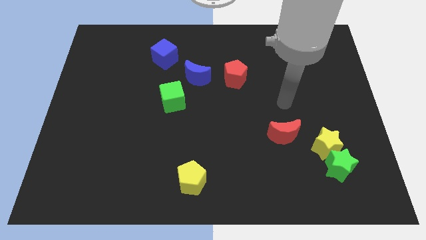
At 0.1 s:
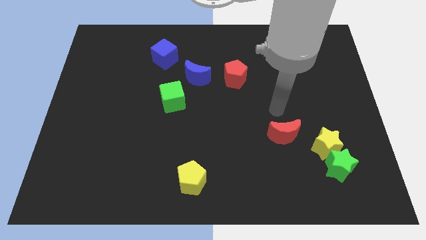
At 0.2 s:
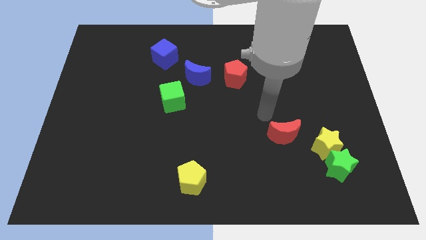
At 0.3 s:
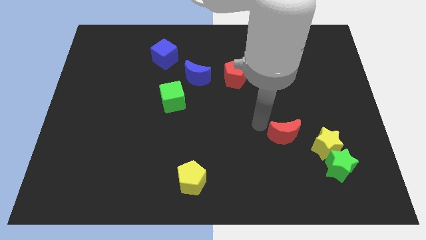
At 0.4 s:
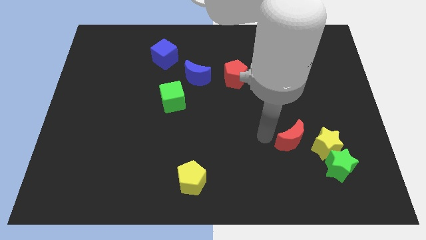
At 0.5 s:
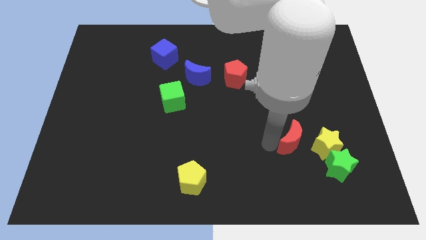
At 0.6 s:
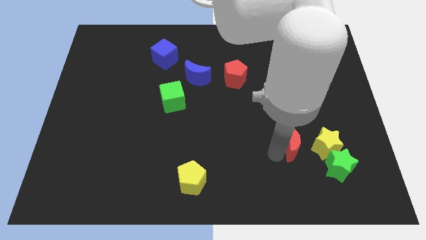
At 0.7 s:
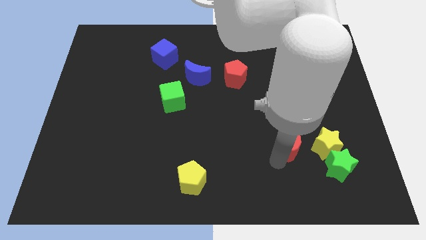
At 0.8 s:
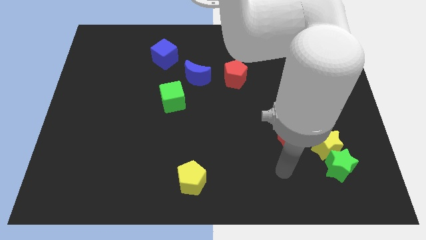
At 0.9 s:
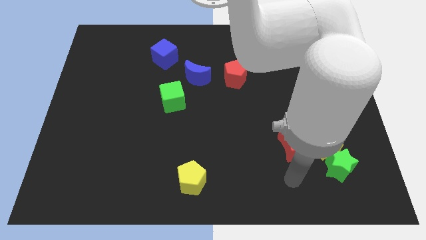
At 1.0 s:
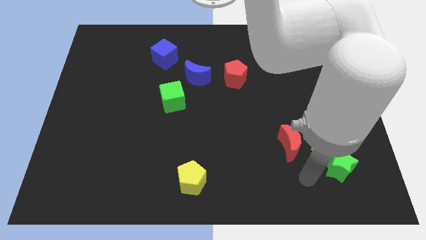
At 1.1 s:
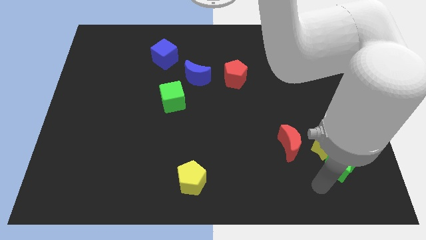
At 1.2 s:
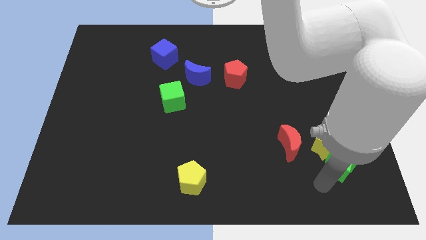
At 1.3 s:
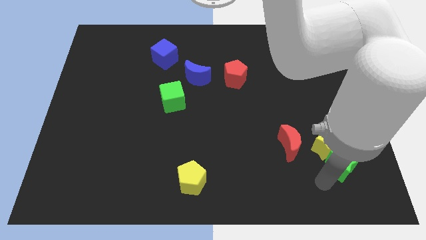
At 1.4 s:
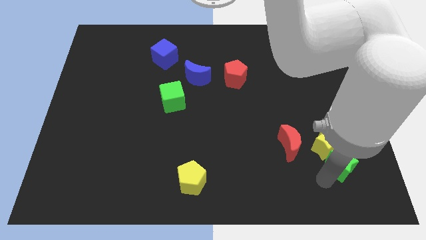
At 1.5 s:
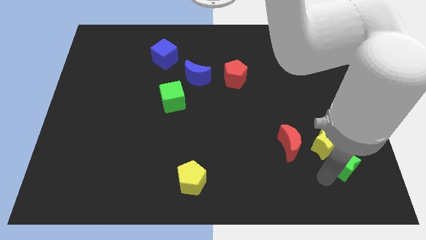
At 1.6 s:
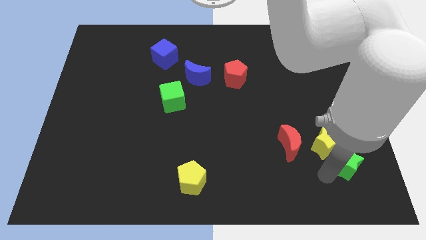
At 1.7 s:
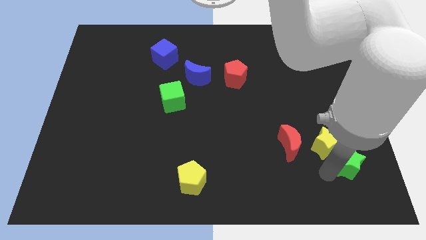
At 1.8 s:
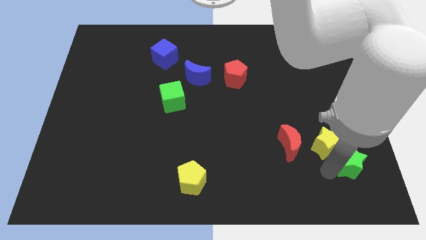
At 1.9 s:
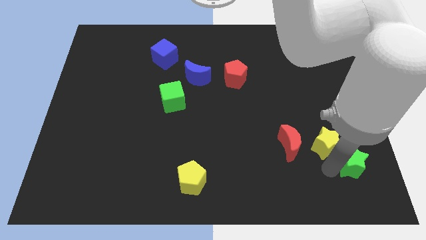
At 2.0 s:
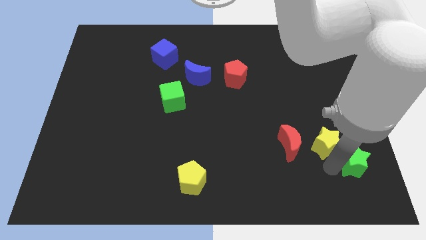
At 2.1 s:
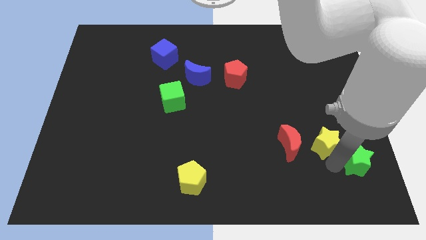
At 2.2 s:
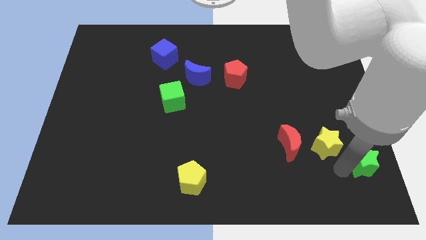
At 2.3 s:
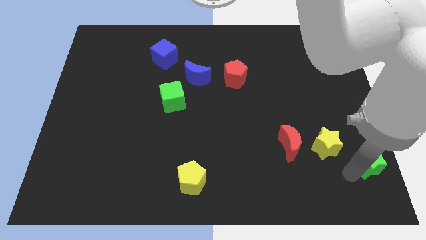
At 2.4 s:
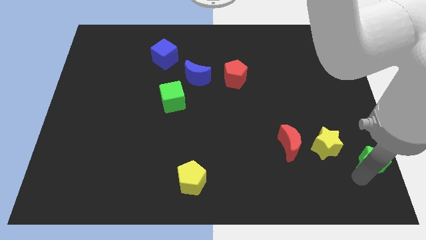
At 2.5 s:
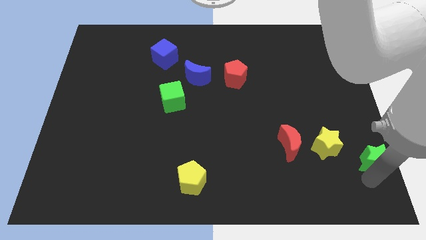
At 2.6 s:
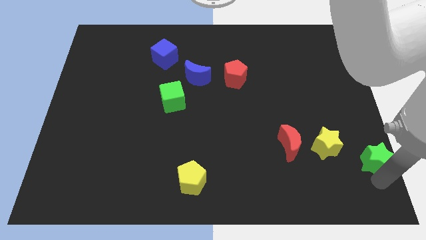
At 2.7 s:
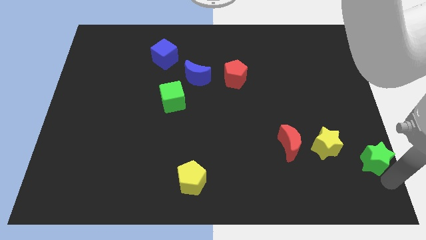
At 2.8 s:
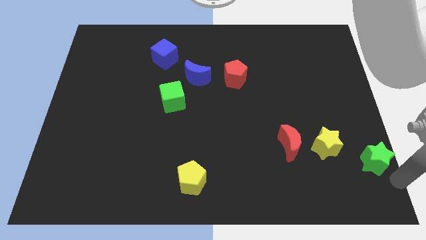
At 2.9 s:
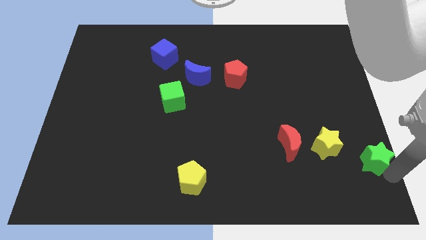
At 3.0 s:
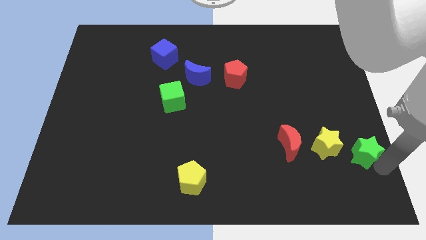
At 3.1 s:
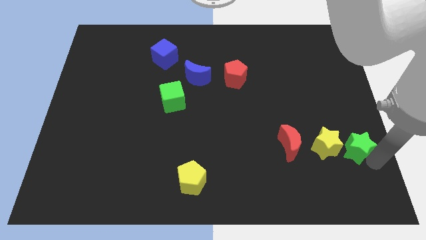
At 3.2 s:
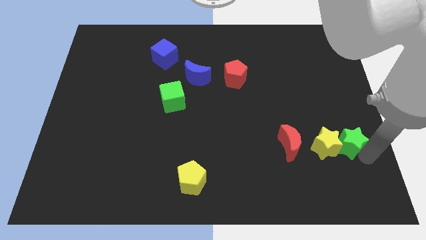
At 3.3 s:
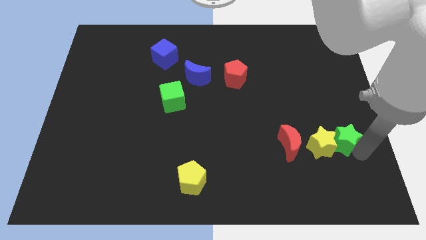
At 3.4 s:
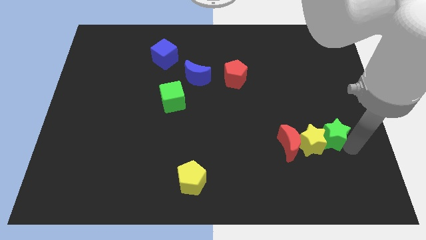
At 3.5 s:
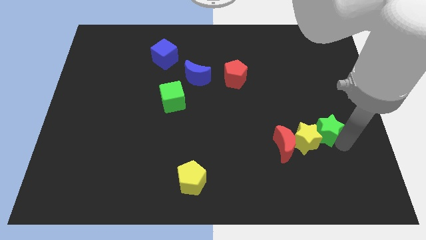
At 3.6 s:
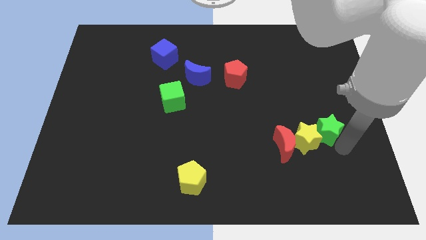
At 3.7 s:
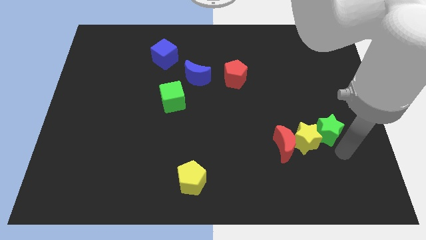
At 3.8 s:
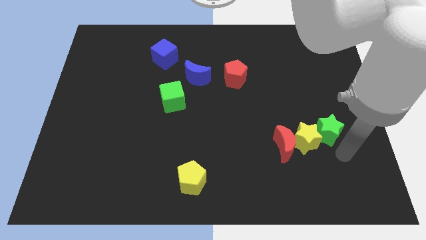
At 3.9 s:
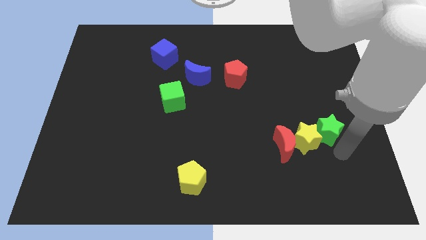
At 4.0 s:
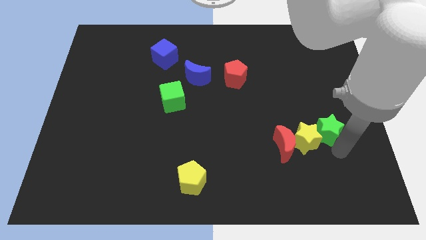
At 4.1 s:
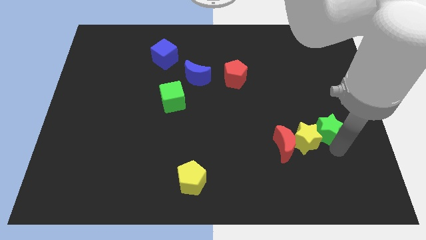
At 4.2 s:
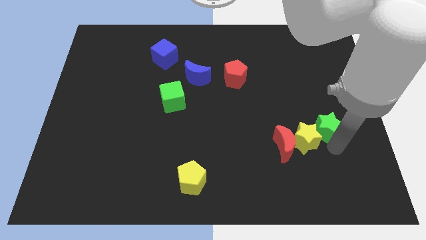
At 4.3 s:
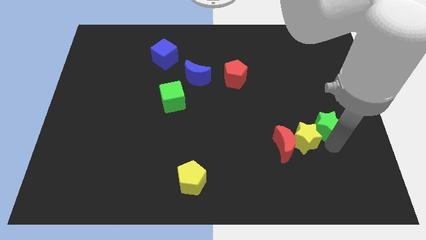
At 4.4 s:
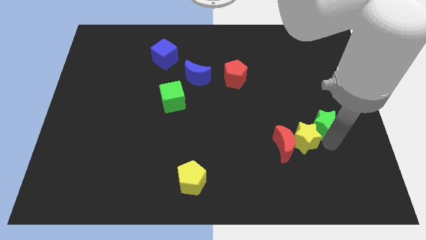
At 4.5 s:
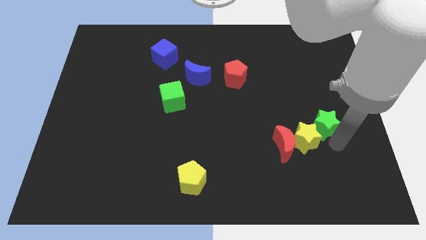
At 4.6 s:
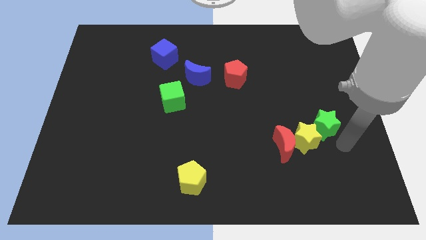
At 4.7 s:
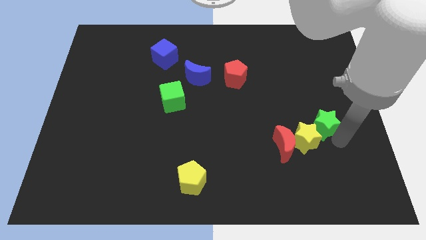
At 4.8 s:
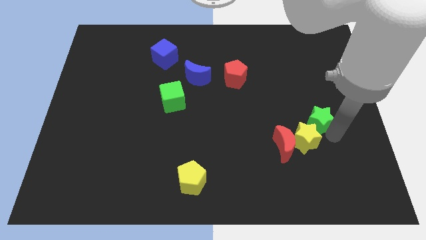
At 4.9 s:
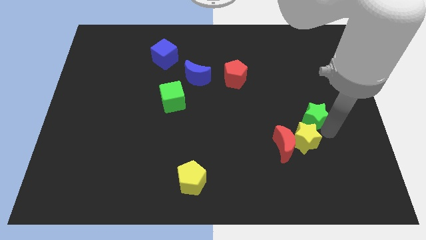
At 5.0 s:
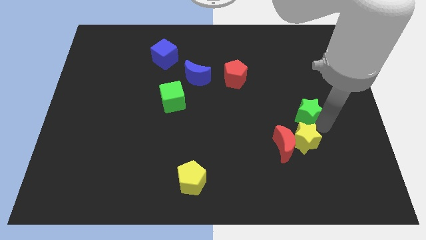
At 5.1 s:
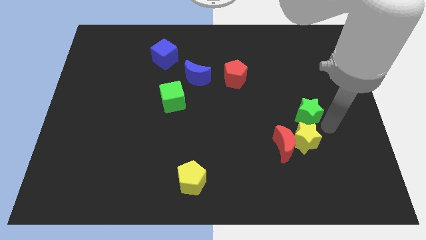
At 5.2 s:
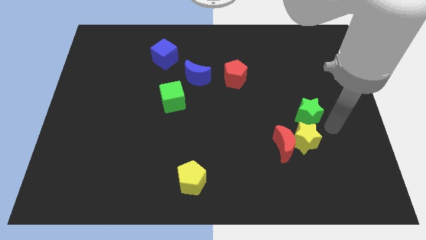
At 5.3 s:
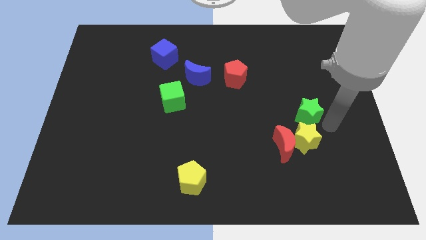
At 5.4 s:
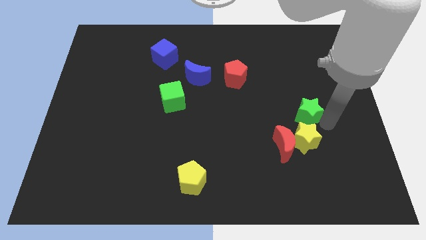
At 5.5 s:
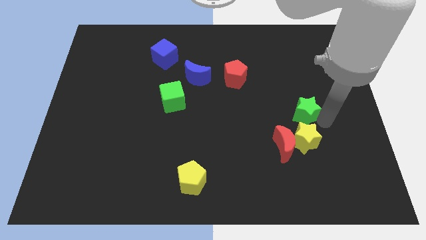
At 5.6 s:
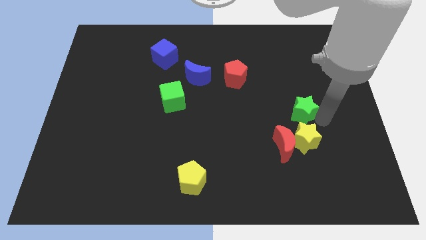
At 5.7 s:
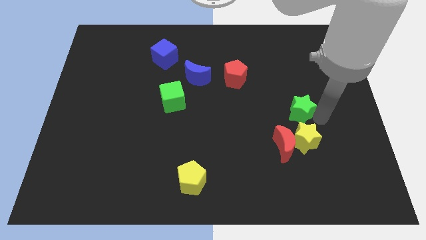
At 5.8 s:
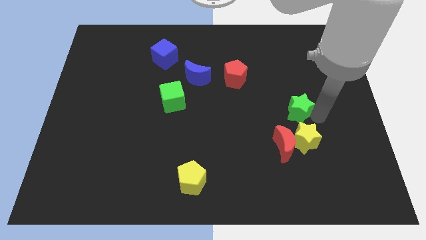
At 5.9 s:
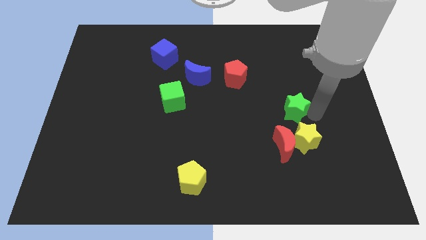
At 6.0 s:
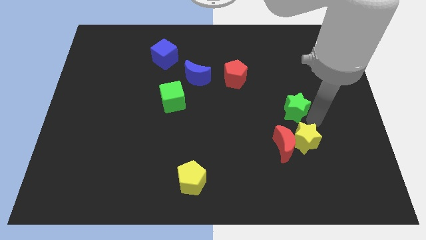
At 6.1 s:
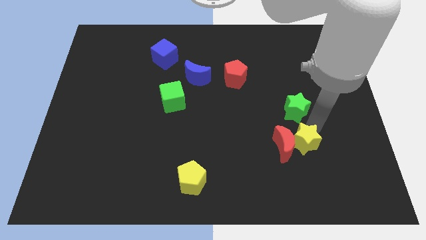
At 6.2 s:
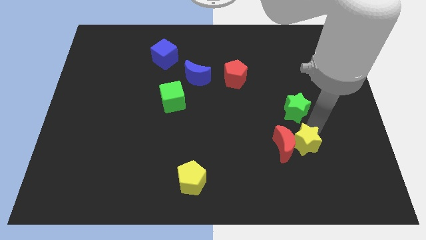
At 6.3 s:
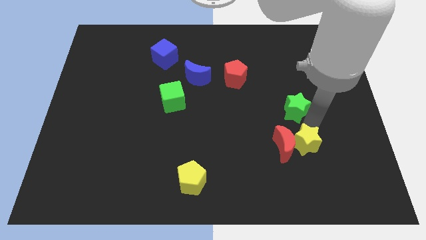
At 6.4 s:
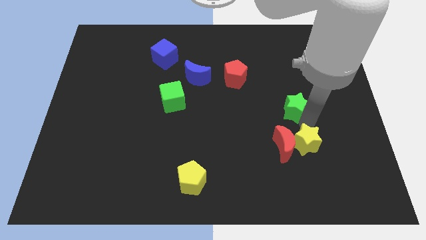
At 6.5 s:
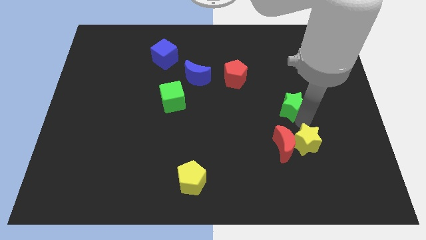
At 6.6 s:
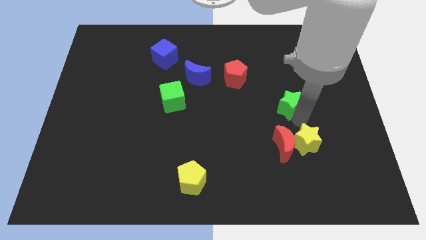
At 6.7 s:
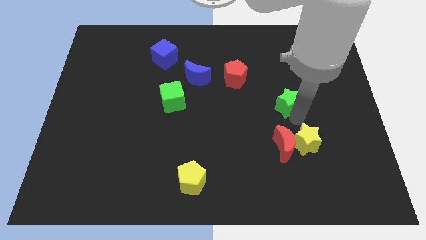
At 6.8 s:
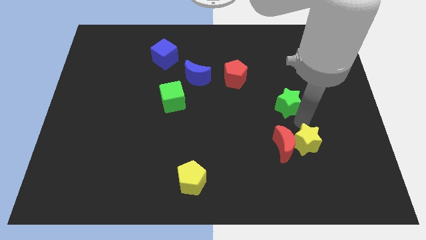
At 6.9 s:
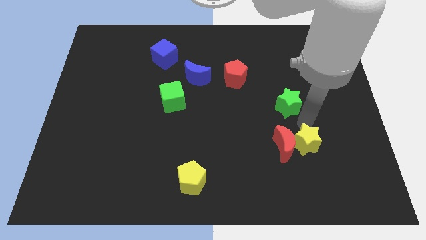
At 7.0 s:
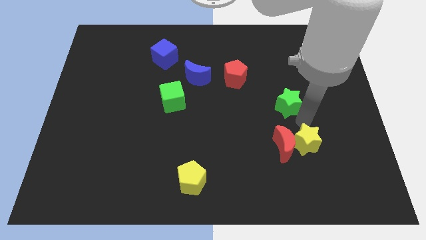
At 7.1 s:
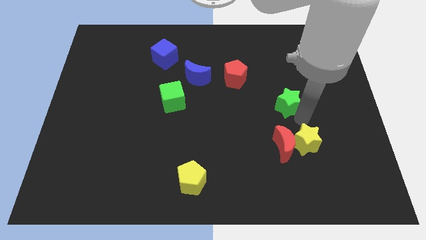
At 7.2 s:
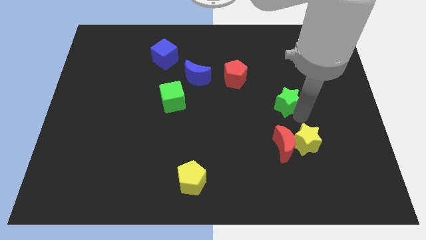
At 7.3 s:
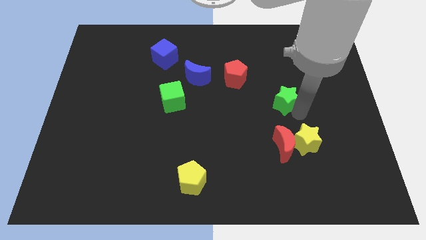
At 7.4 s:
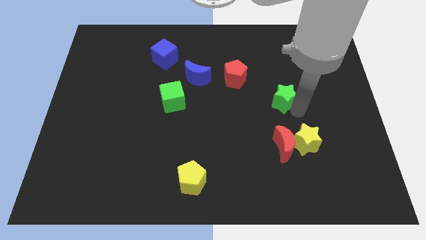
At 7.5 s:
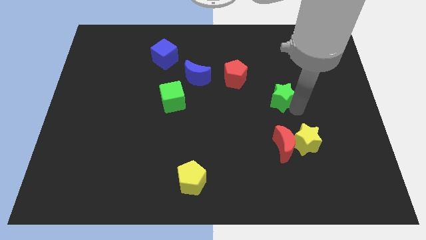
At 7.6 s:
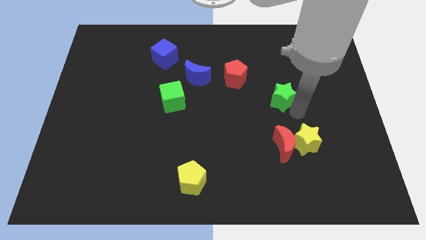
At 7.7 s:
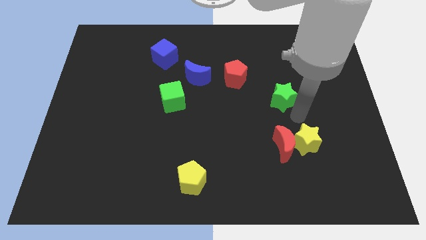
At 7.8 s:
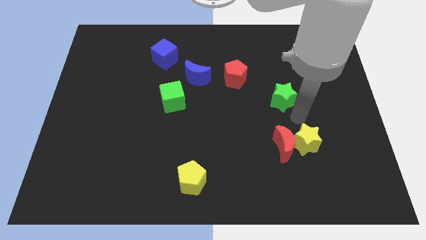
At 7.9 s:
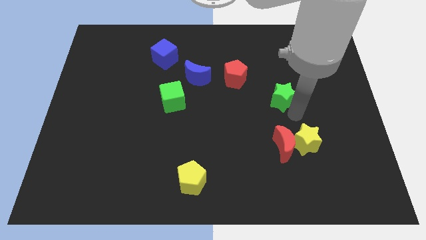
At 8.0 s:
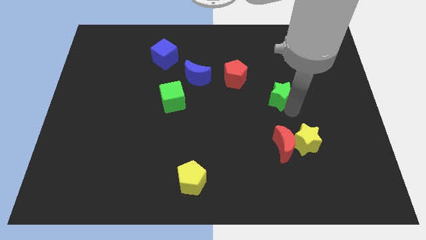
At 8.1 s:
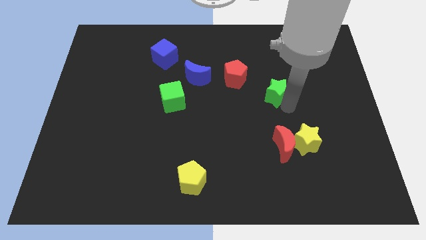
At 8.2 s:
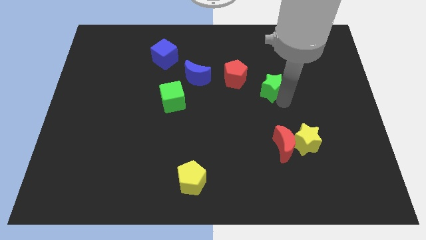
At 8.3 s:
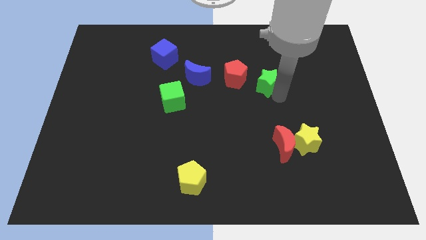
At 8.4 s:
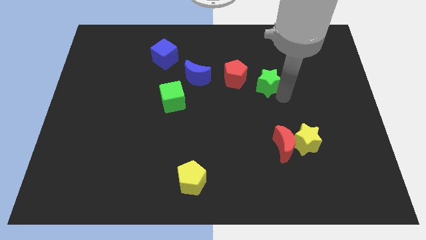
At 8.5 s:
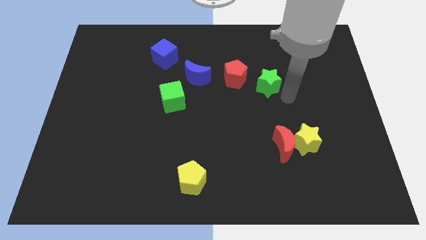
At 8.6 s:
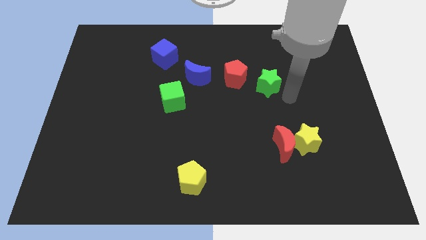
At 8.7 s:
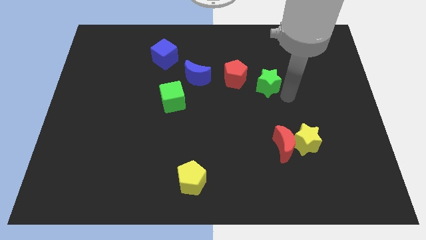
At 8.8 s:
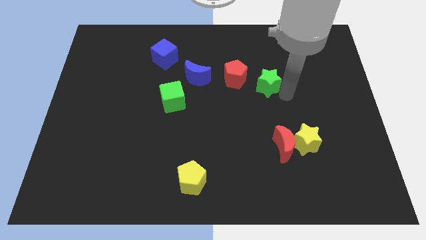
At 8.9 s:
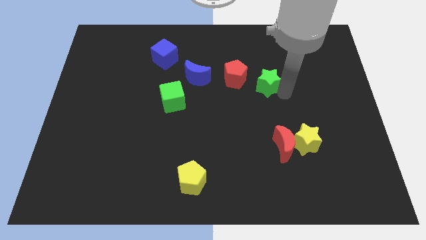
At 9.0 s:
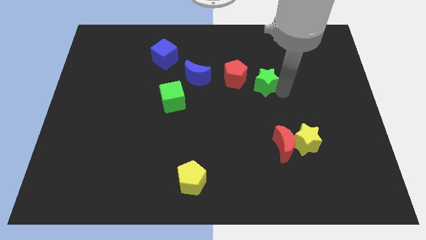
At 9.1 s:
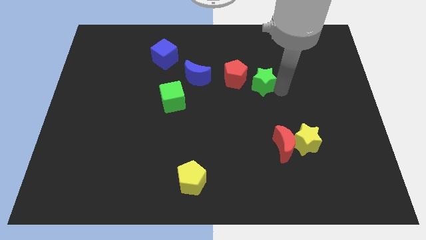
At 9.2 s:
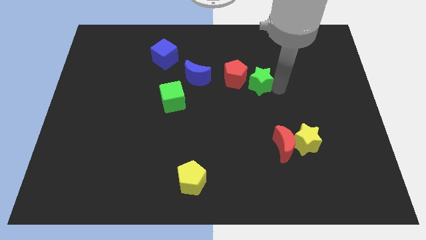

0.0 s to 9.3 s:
push the green star to the right of the blue moon
